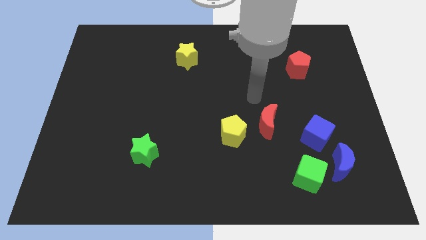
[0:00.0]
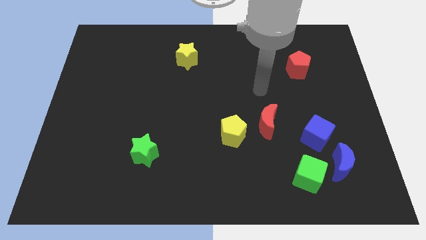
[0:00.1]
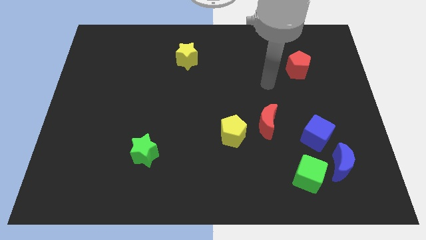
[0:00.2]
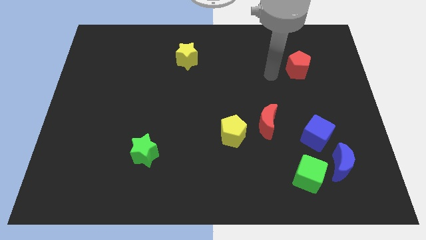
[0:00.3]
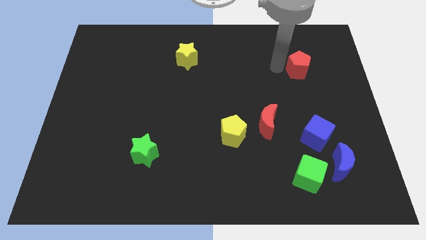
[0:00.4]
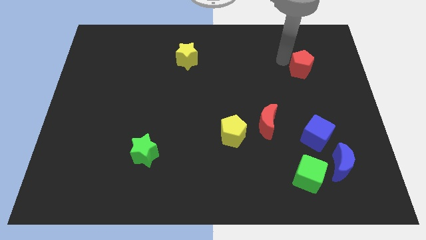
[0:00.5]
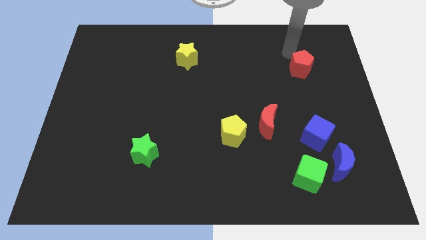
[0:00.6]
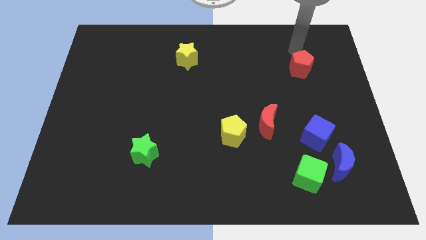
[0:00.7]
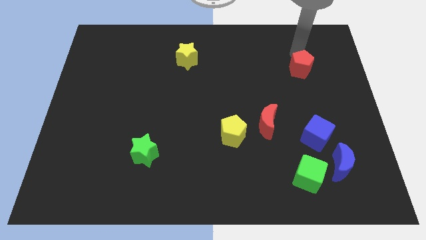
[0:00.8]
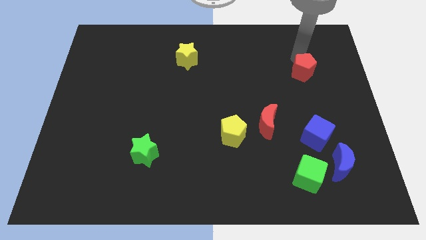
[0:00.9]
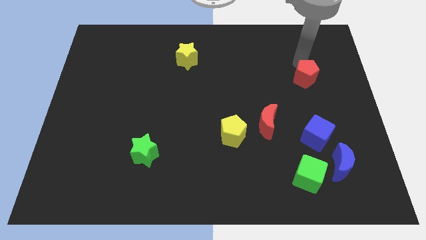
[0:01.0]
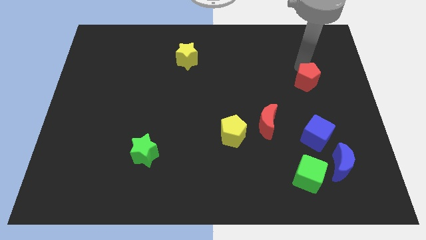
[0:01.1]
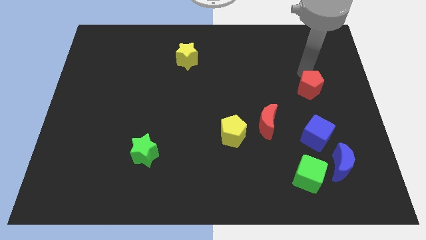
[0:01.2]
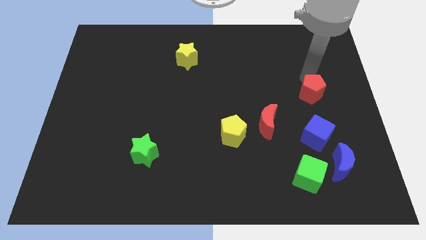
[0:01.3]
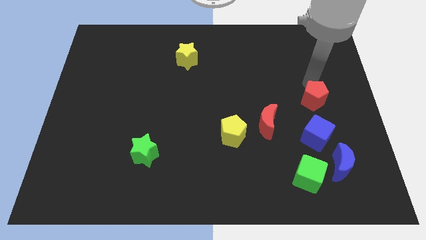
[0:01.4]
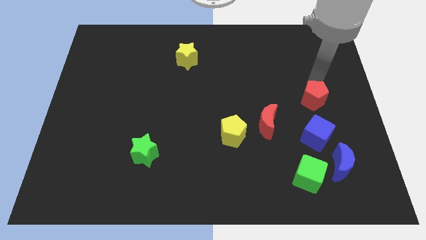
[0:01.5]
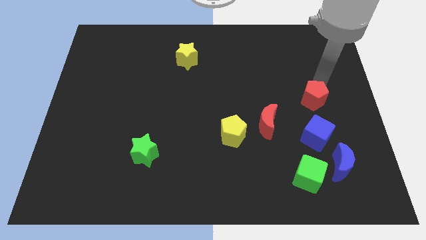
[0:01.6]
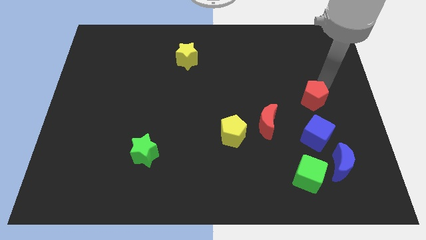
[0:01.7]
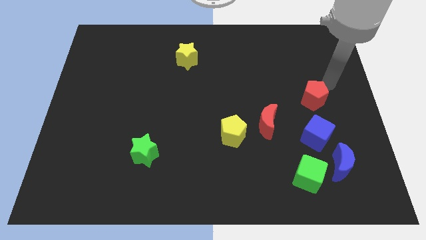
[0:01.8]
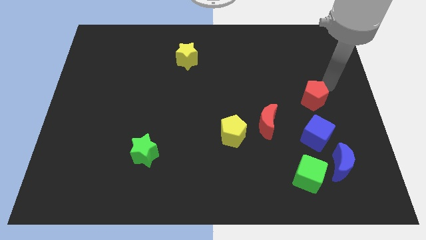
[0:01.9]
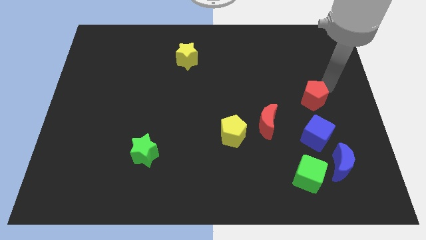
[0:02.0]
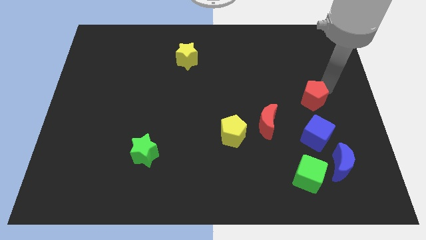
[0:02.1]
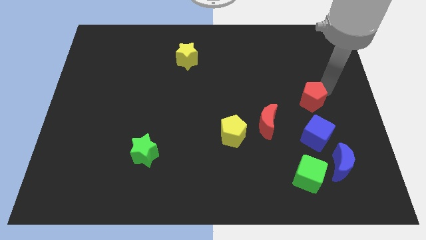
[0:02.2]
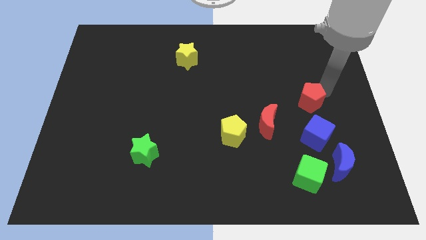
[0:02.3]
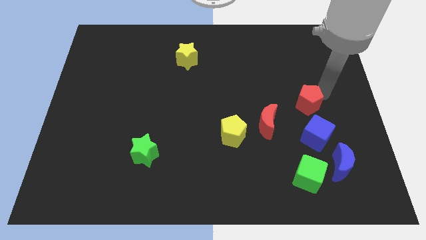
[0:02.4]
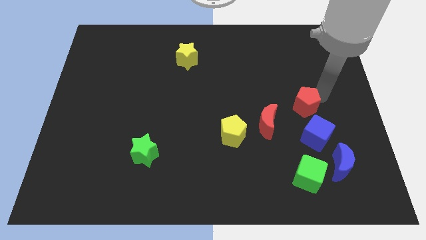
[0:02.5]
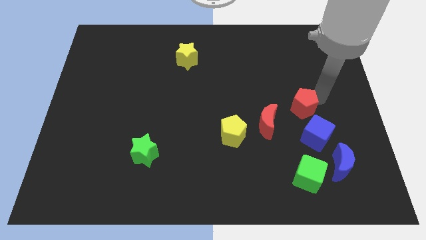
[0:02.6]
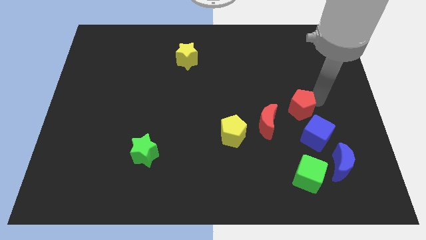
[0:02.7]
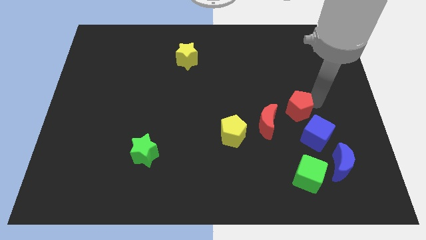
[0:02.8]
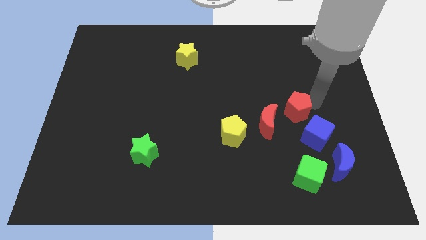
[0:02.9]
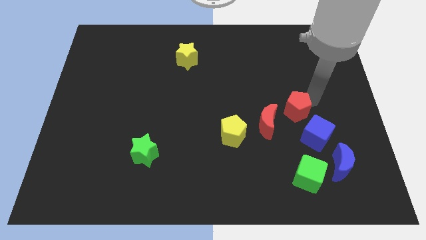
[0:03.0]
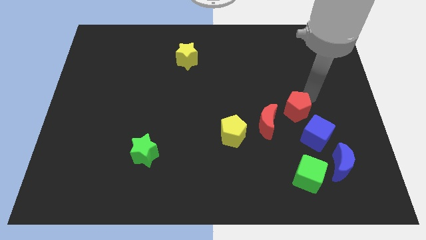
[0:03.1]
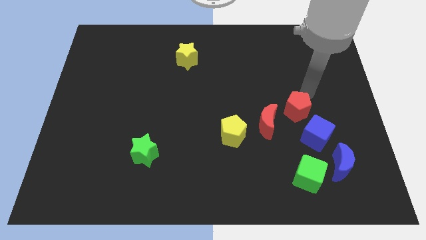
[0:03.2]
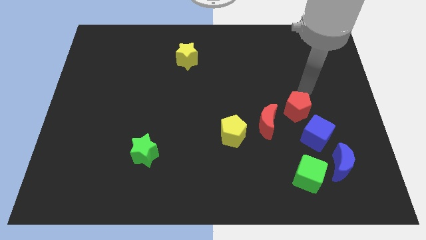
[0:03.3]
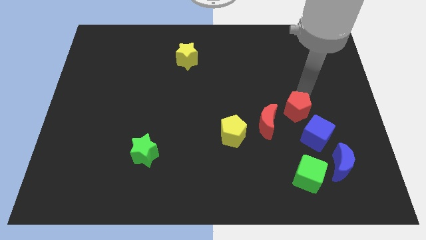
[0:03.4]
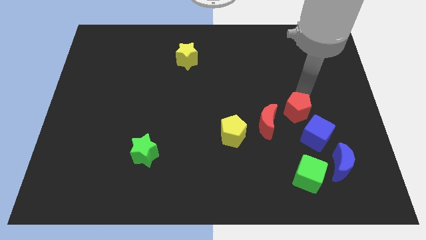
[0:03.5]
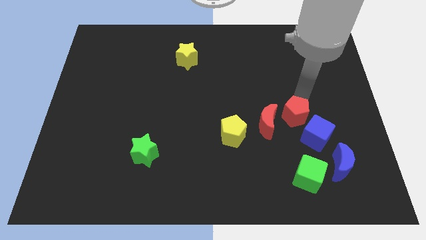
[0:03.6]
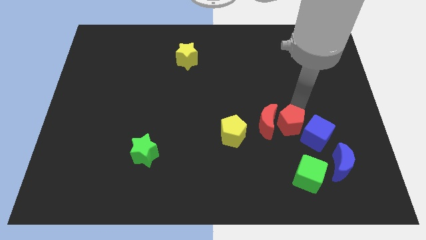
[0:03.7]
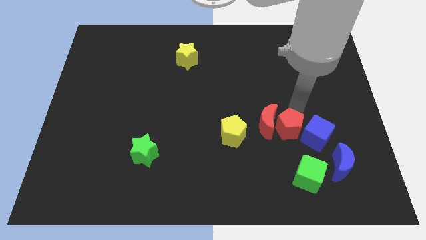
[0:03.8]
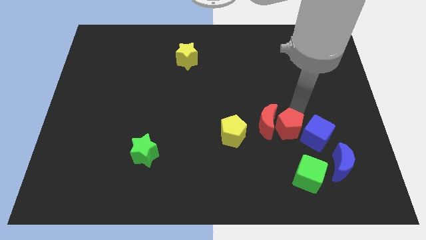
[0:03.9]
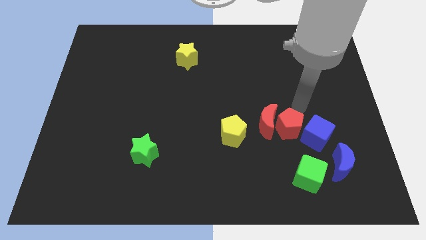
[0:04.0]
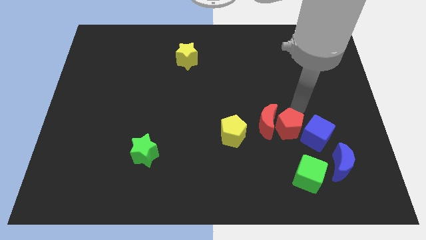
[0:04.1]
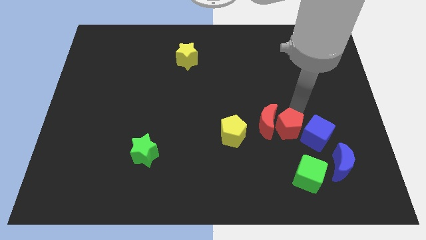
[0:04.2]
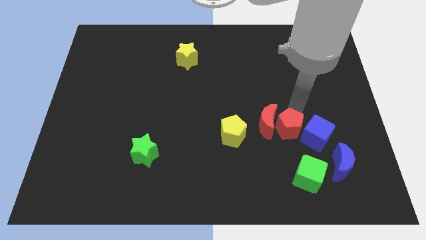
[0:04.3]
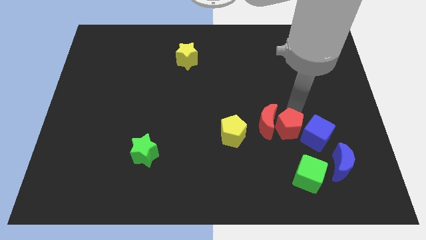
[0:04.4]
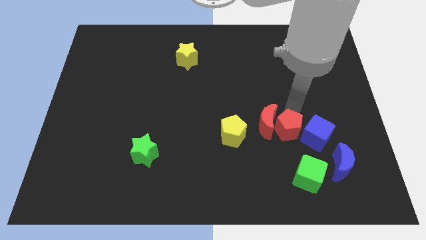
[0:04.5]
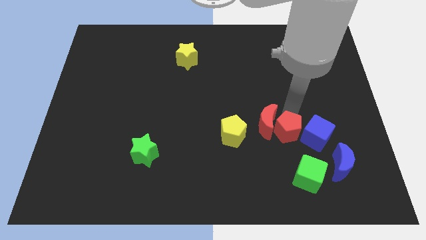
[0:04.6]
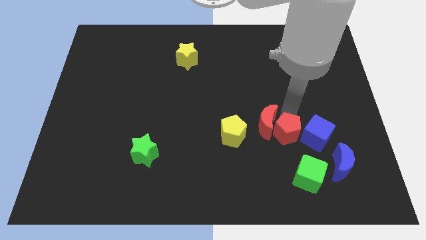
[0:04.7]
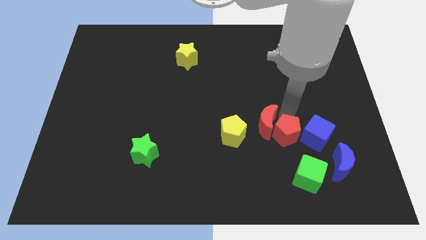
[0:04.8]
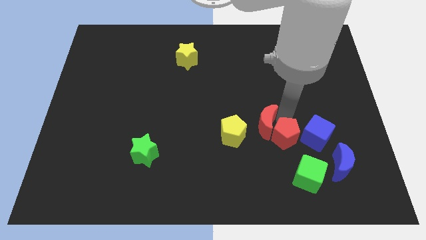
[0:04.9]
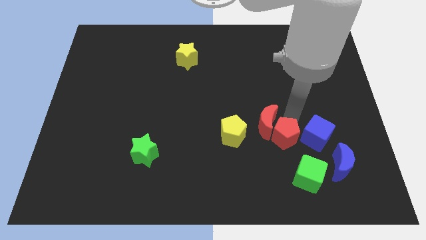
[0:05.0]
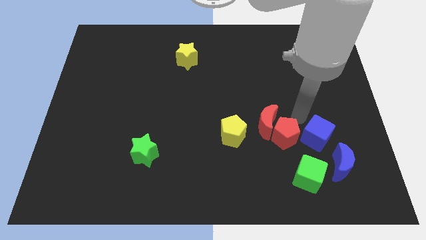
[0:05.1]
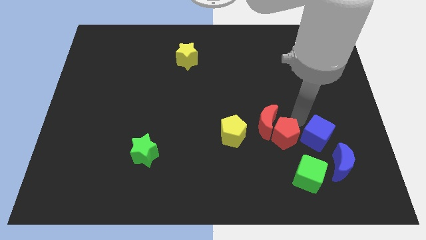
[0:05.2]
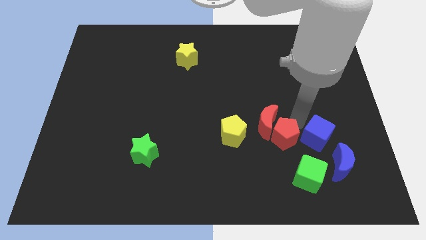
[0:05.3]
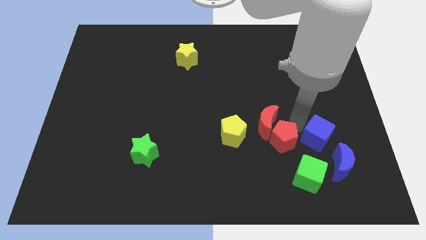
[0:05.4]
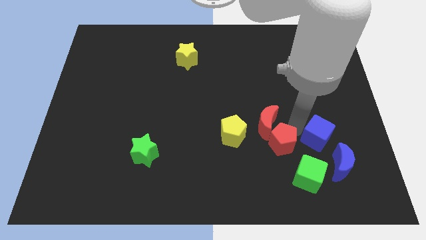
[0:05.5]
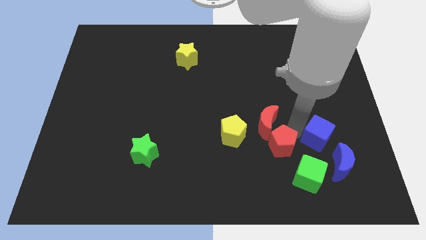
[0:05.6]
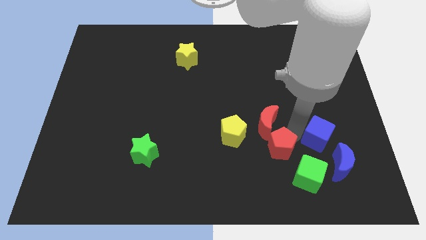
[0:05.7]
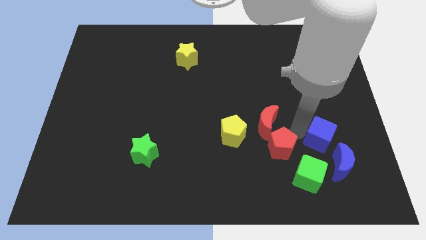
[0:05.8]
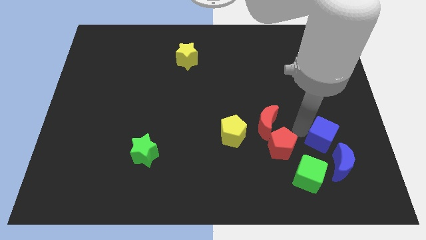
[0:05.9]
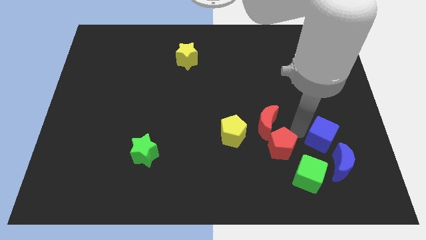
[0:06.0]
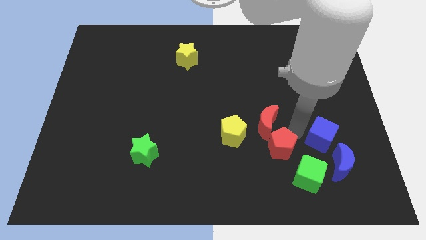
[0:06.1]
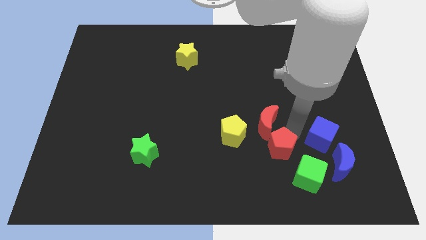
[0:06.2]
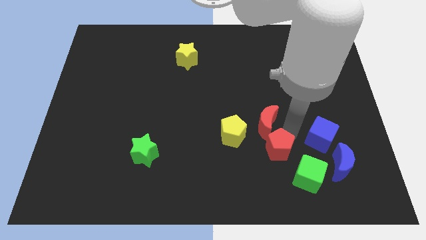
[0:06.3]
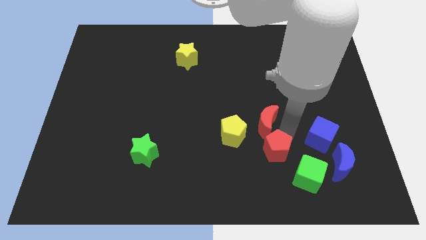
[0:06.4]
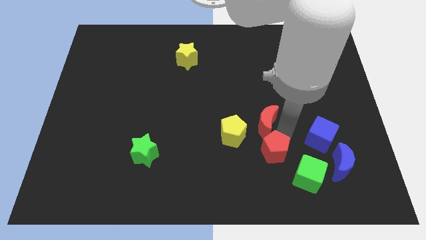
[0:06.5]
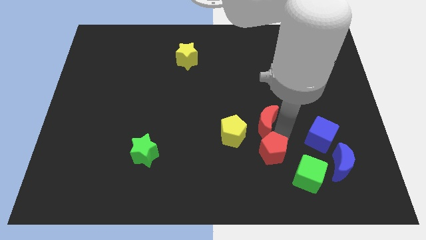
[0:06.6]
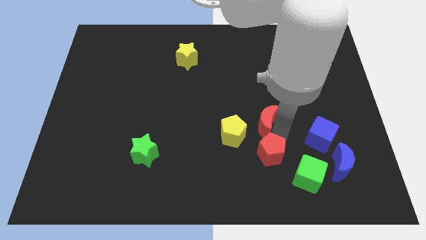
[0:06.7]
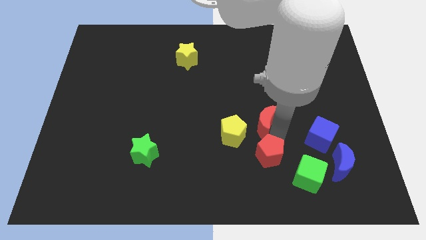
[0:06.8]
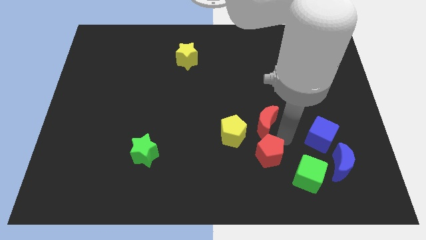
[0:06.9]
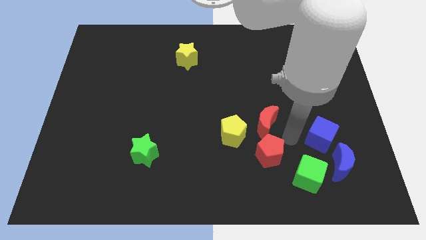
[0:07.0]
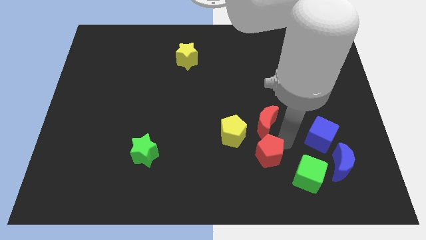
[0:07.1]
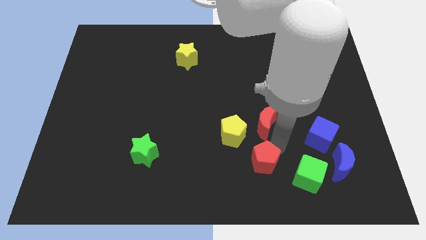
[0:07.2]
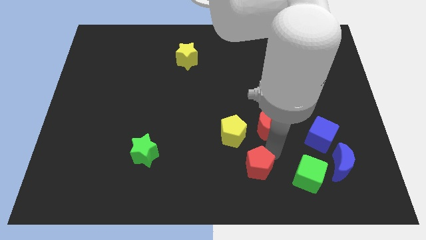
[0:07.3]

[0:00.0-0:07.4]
push the red pentagon to the bottom side of the yellow pentagon
